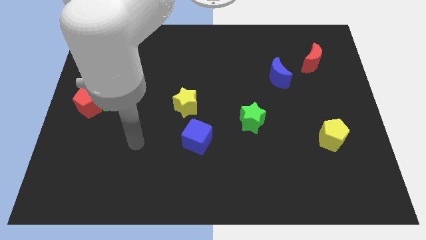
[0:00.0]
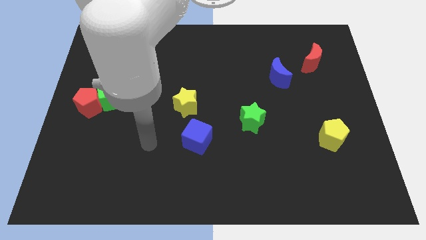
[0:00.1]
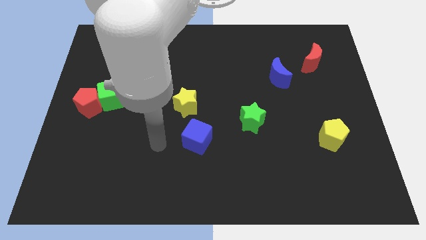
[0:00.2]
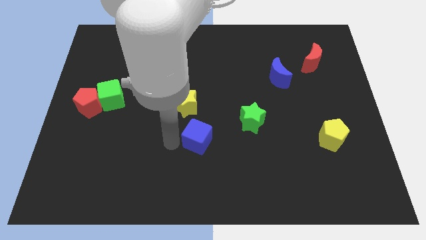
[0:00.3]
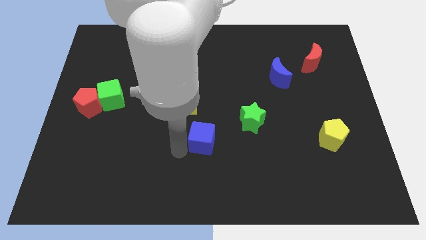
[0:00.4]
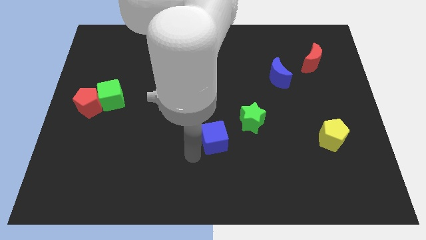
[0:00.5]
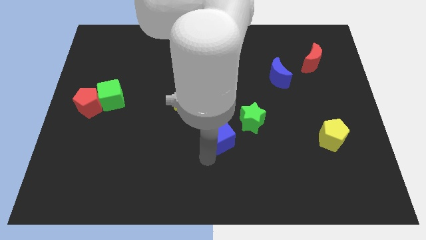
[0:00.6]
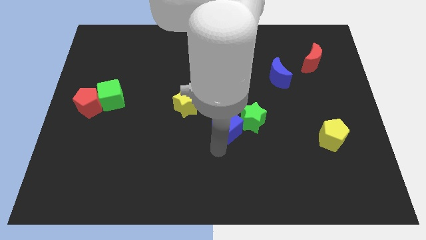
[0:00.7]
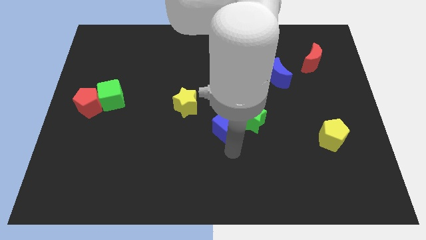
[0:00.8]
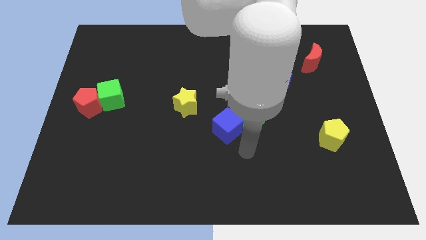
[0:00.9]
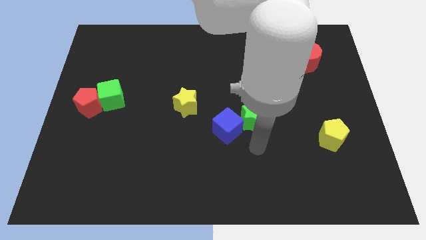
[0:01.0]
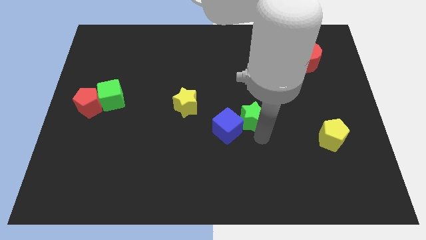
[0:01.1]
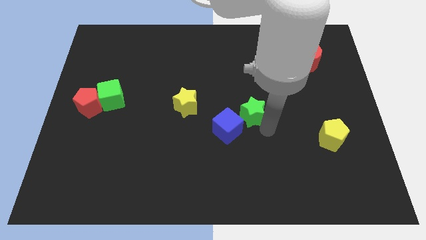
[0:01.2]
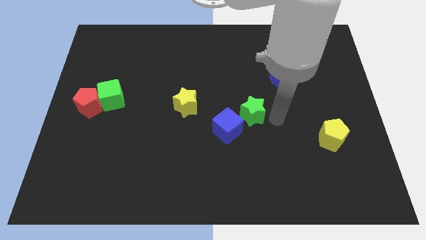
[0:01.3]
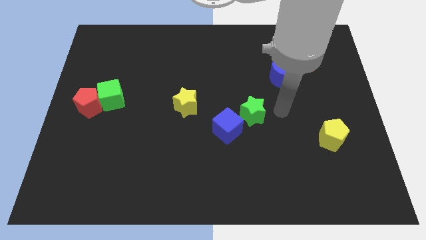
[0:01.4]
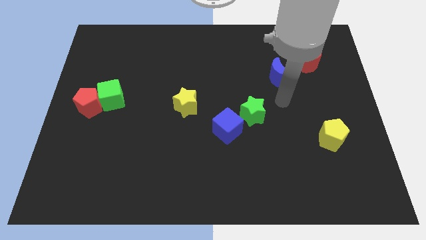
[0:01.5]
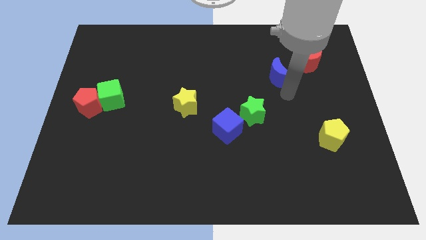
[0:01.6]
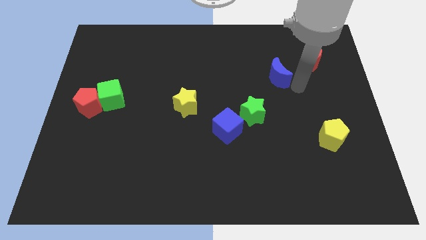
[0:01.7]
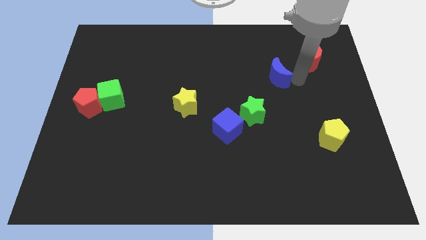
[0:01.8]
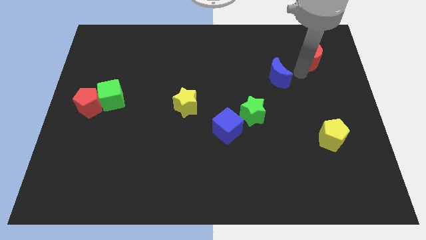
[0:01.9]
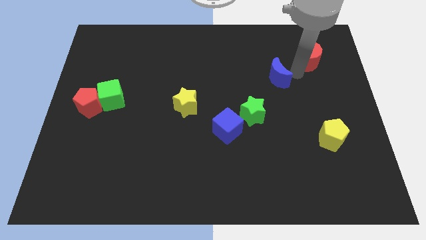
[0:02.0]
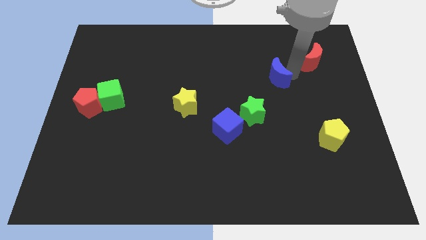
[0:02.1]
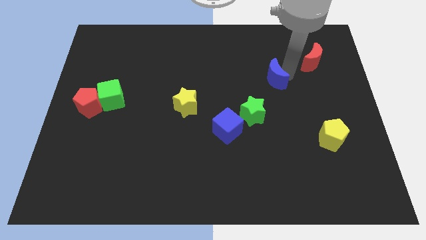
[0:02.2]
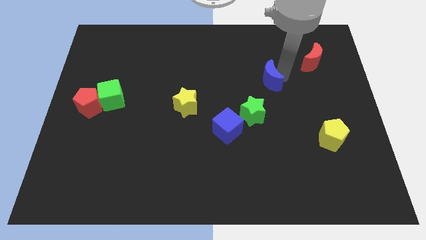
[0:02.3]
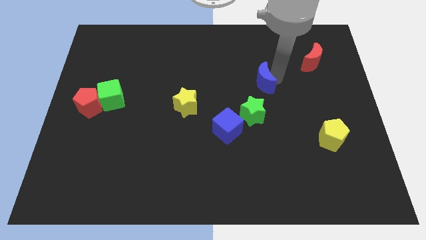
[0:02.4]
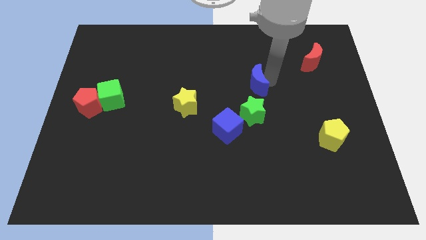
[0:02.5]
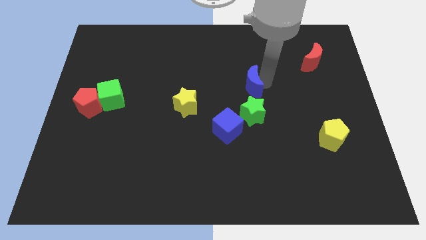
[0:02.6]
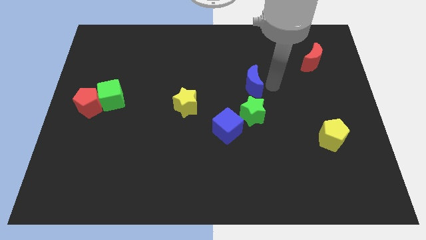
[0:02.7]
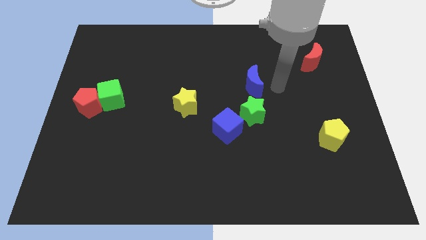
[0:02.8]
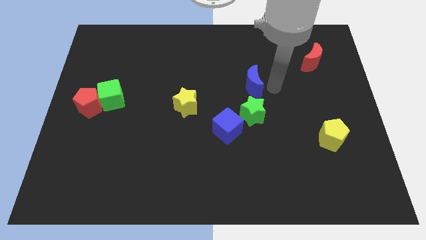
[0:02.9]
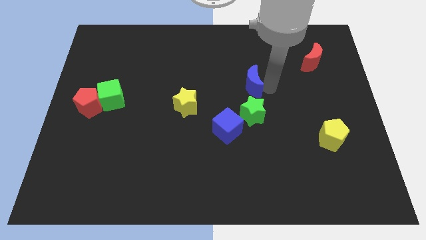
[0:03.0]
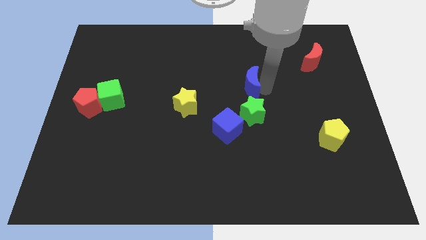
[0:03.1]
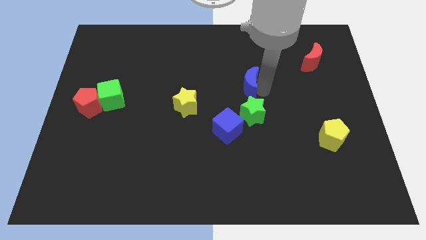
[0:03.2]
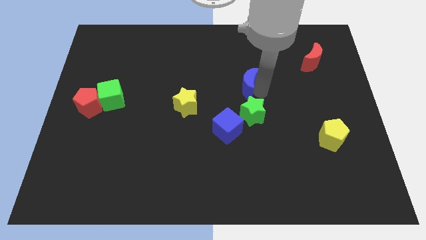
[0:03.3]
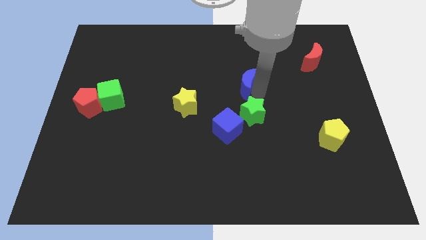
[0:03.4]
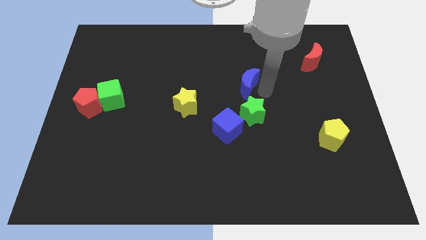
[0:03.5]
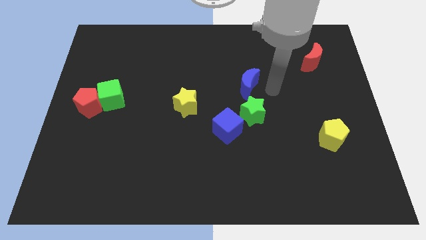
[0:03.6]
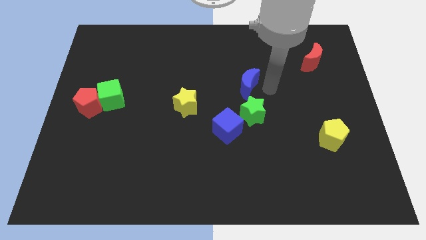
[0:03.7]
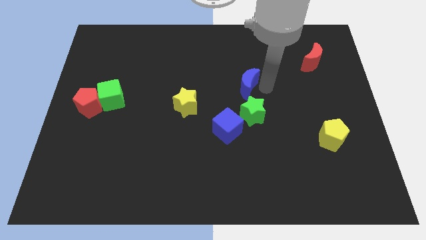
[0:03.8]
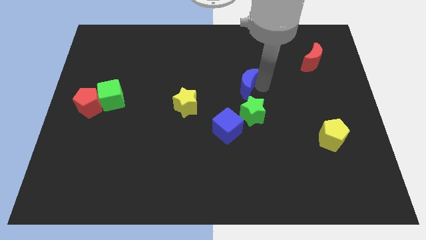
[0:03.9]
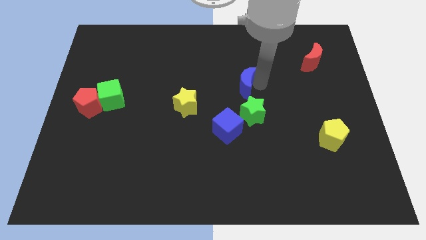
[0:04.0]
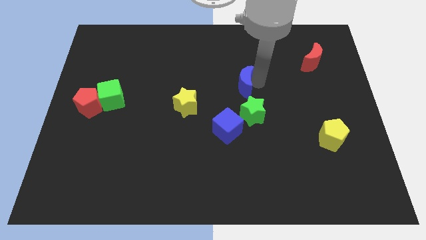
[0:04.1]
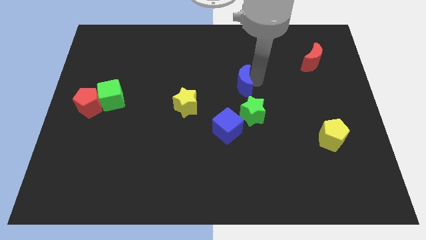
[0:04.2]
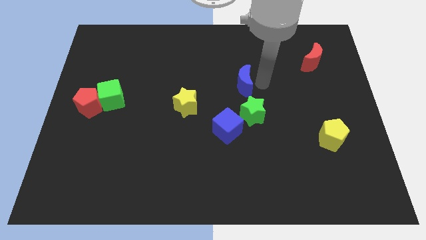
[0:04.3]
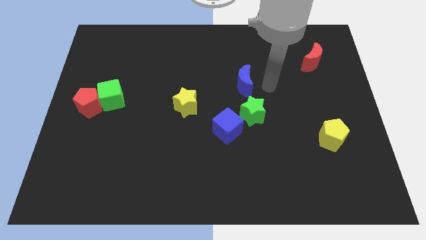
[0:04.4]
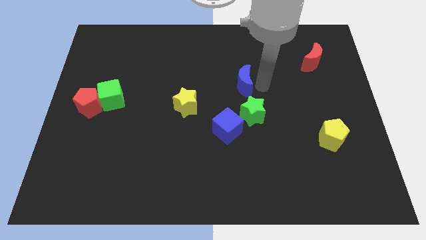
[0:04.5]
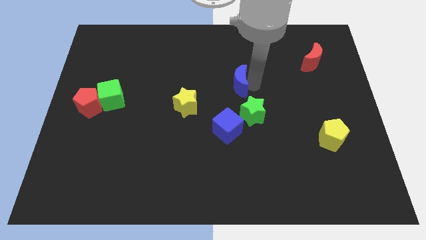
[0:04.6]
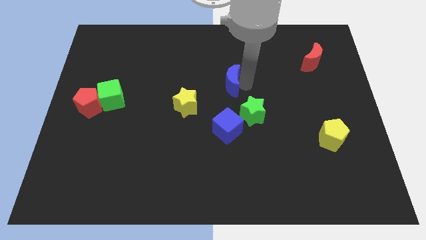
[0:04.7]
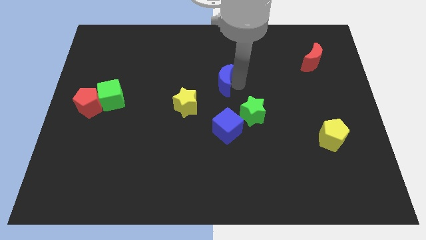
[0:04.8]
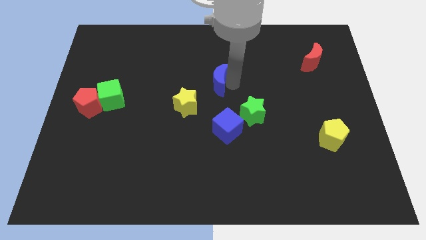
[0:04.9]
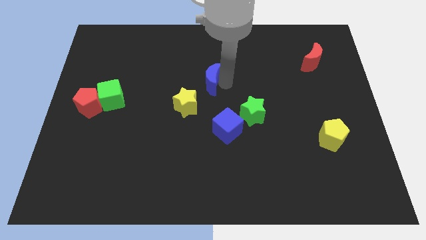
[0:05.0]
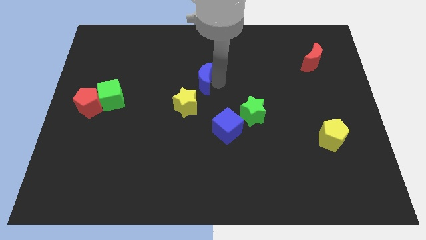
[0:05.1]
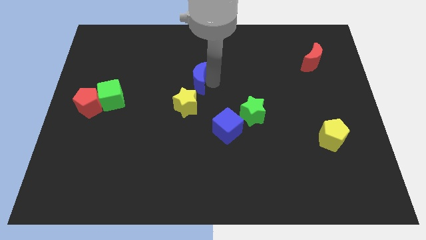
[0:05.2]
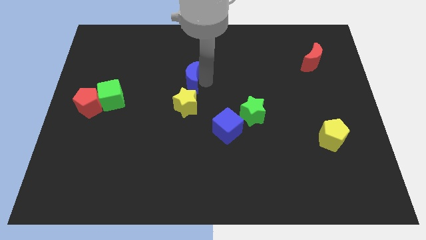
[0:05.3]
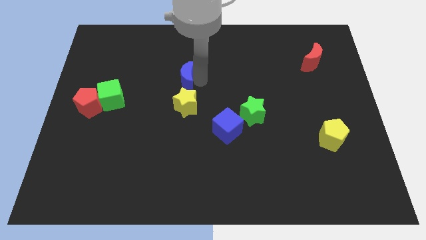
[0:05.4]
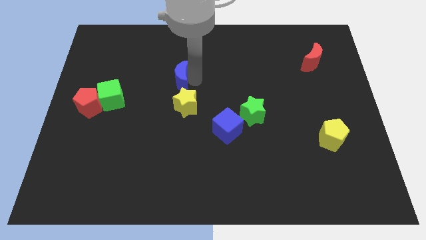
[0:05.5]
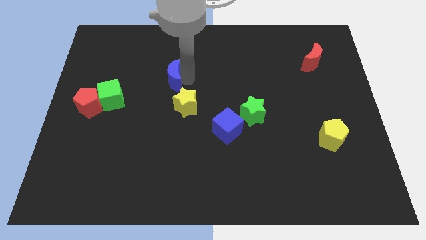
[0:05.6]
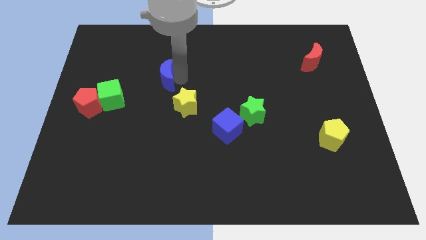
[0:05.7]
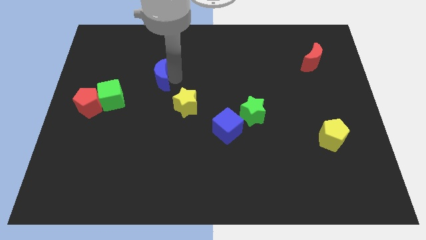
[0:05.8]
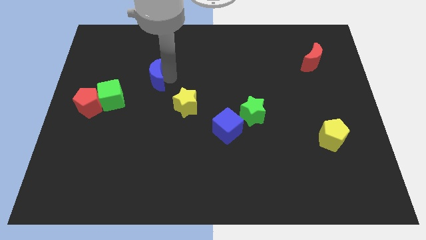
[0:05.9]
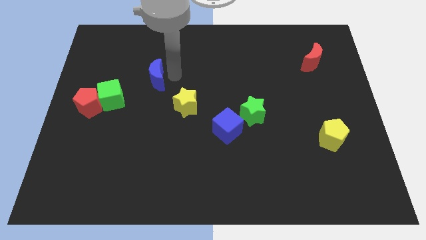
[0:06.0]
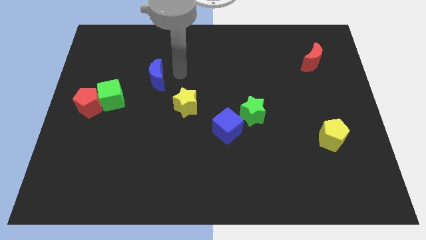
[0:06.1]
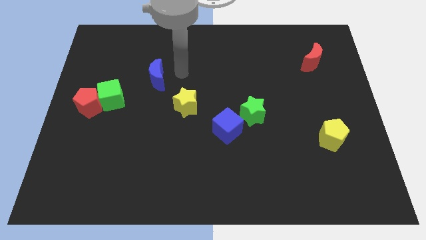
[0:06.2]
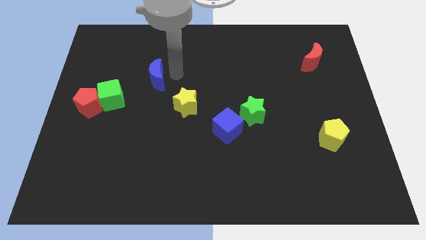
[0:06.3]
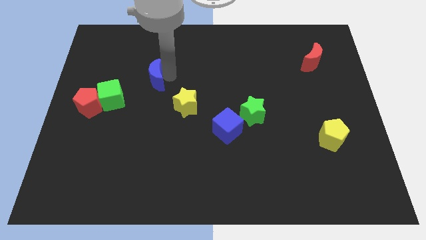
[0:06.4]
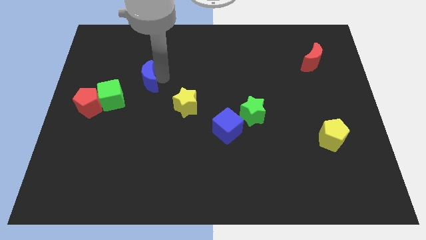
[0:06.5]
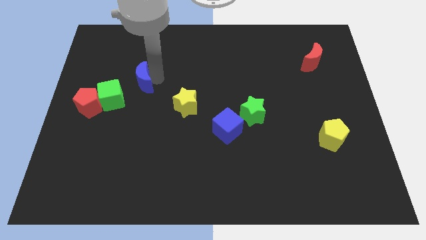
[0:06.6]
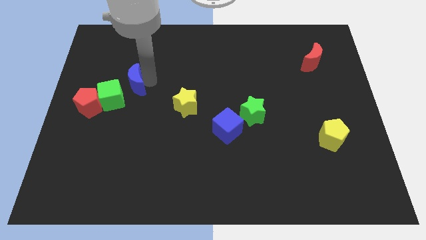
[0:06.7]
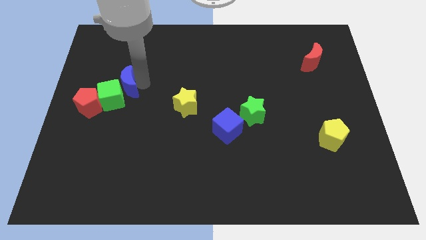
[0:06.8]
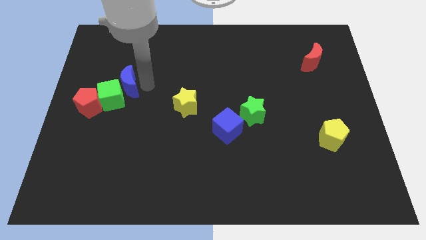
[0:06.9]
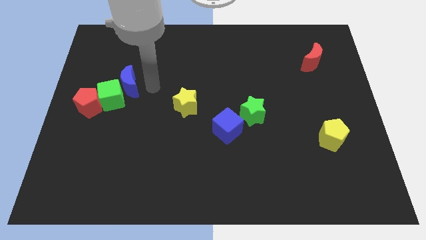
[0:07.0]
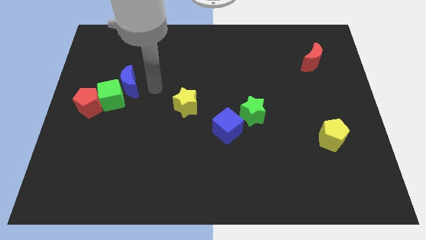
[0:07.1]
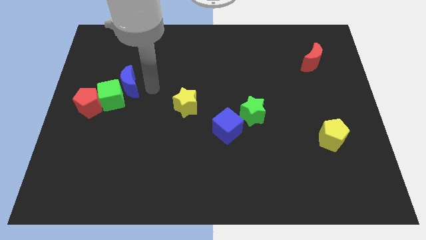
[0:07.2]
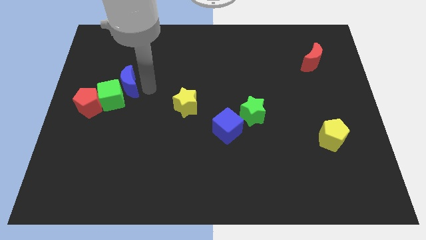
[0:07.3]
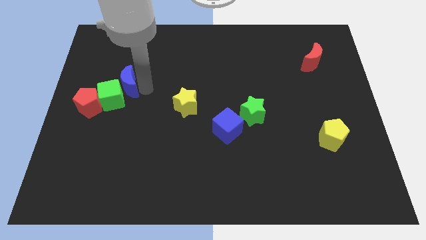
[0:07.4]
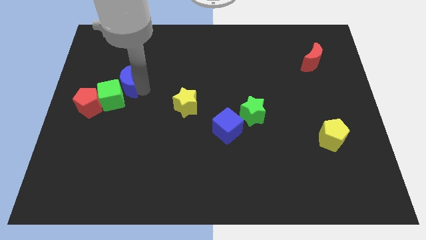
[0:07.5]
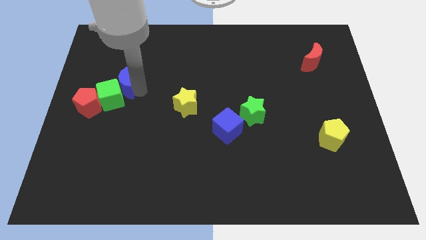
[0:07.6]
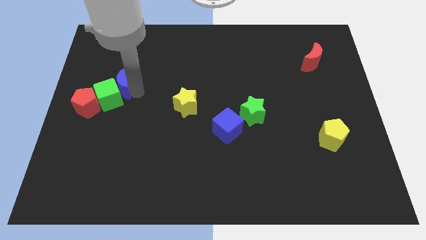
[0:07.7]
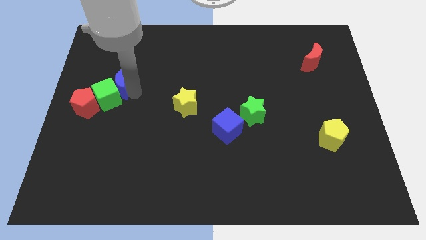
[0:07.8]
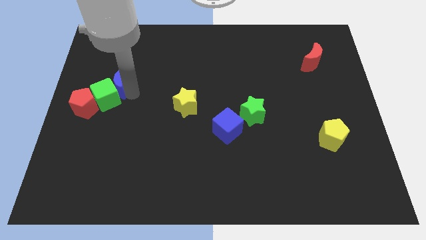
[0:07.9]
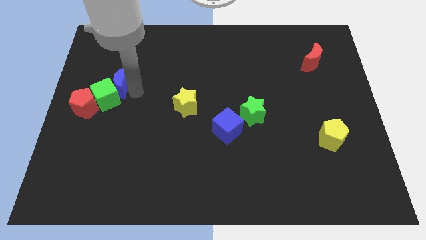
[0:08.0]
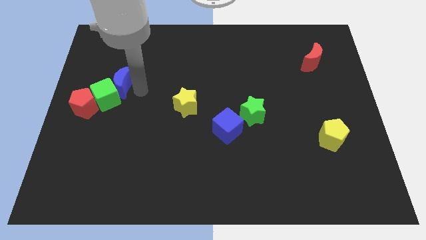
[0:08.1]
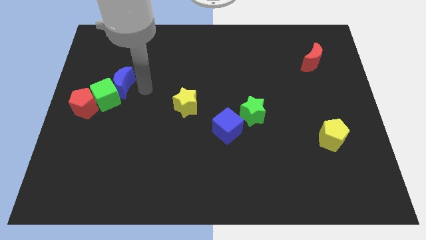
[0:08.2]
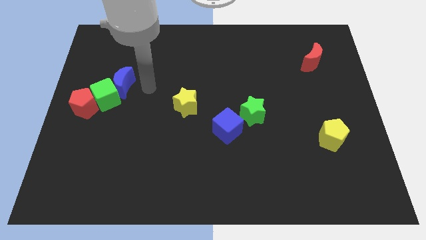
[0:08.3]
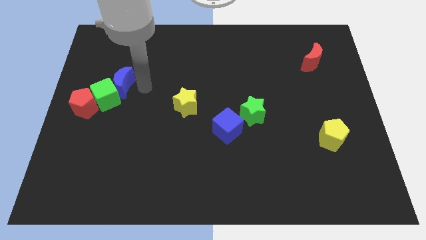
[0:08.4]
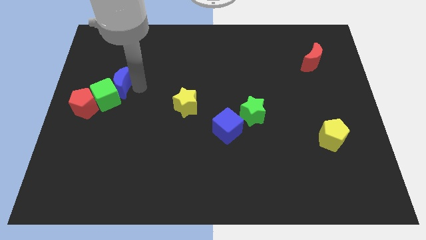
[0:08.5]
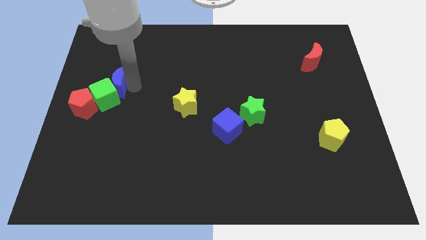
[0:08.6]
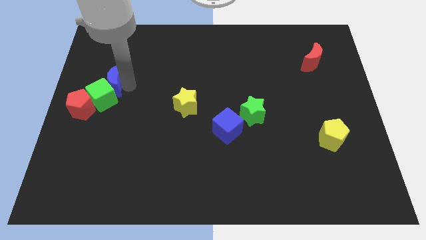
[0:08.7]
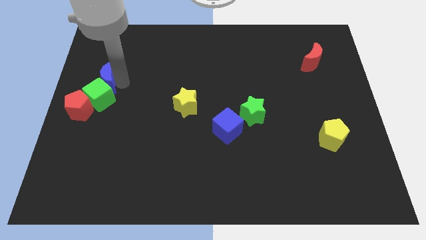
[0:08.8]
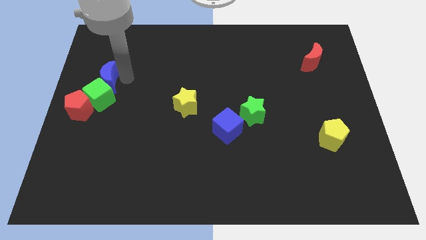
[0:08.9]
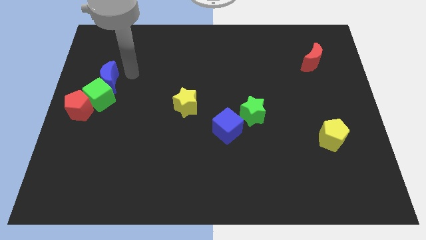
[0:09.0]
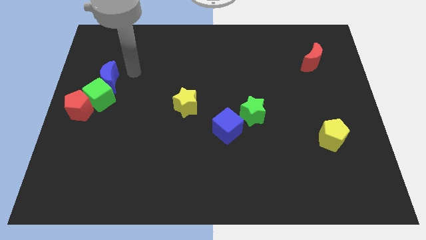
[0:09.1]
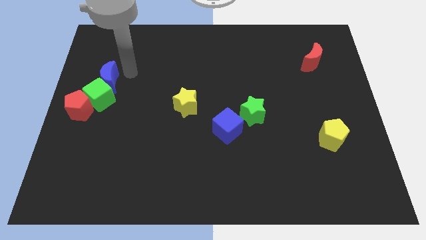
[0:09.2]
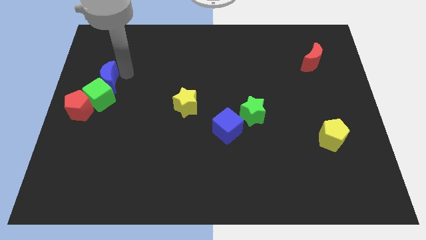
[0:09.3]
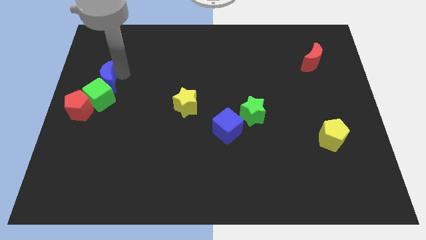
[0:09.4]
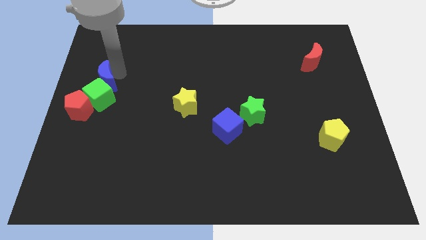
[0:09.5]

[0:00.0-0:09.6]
put the blue moon to the left side
